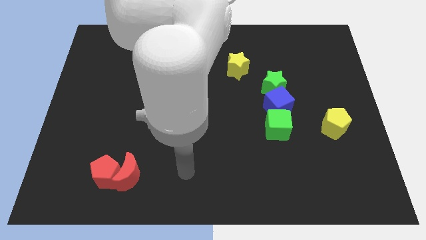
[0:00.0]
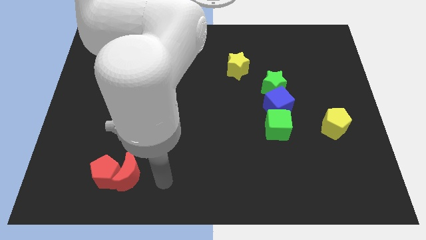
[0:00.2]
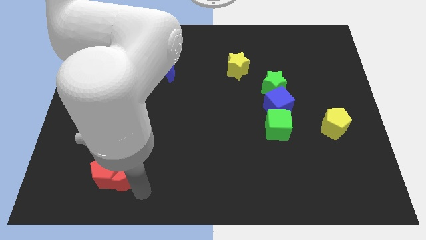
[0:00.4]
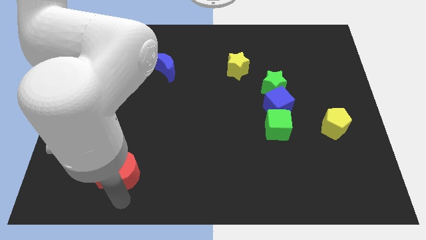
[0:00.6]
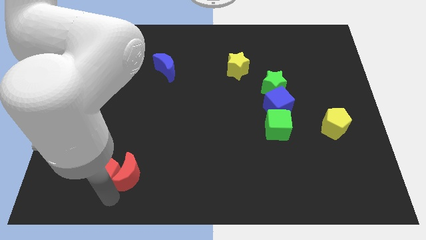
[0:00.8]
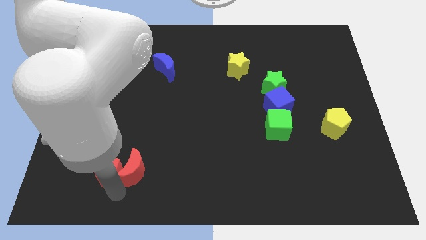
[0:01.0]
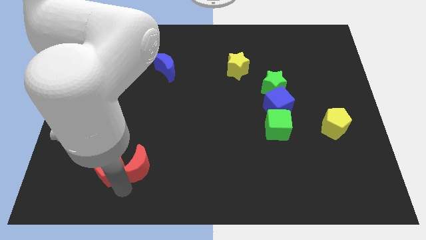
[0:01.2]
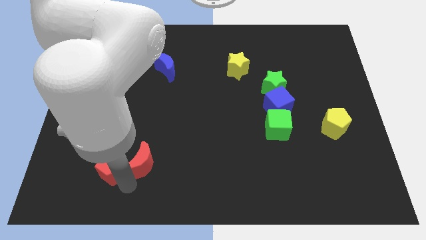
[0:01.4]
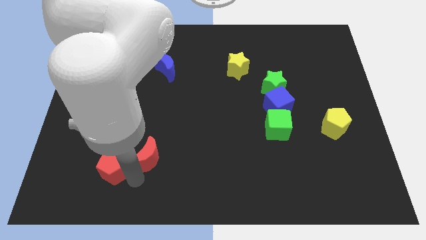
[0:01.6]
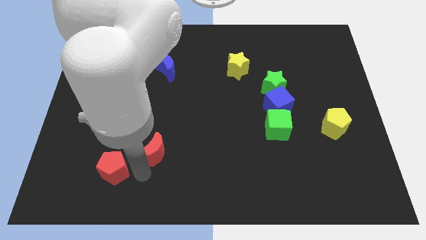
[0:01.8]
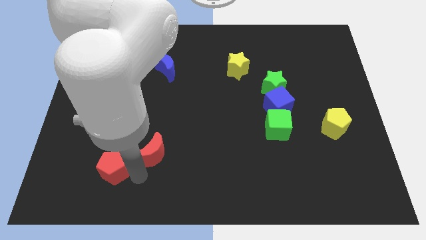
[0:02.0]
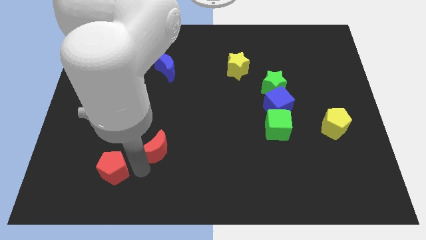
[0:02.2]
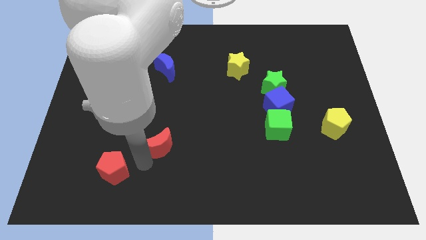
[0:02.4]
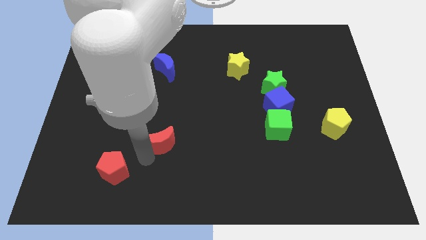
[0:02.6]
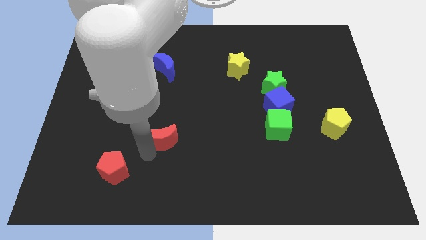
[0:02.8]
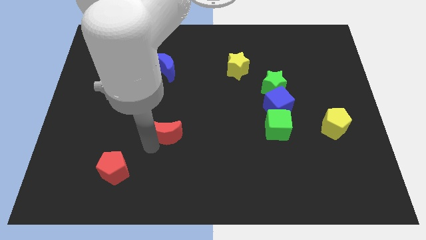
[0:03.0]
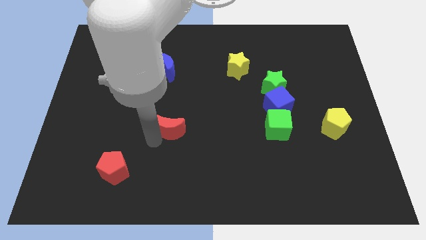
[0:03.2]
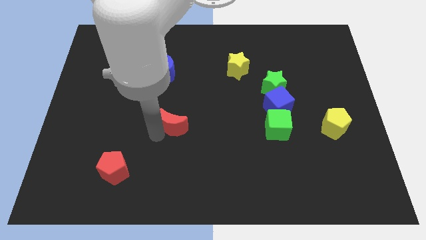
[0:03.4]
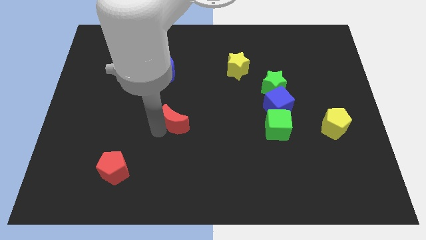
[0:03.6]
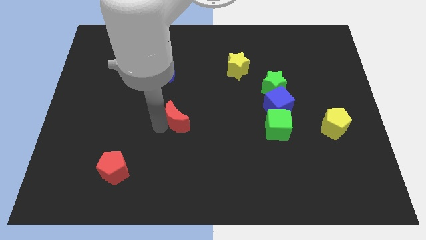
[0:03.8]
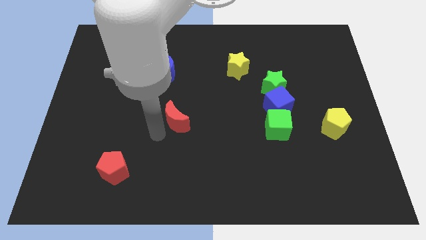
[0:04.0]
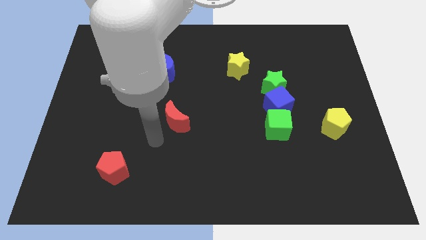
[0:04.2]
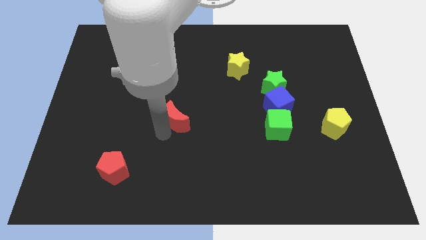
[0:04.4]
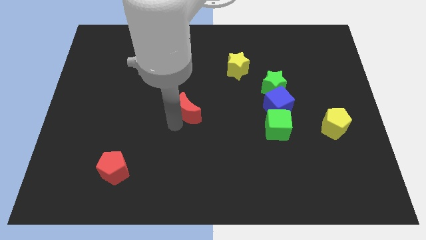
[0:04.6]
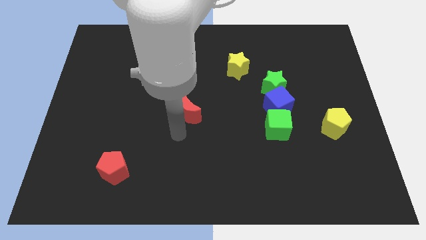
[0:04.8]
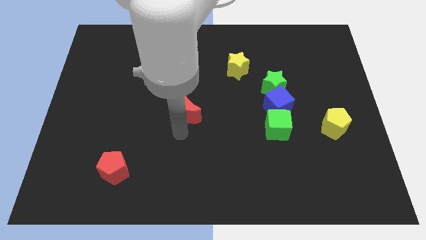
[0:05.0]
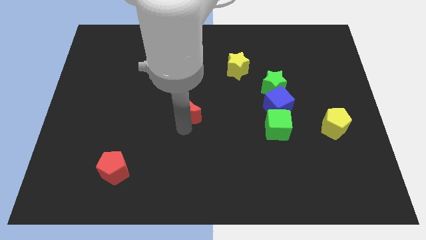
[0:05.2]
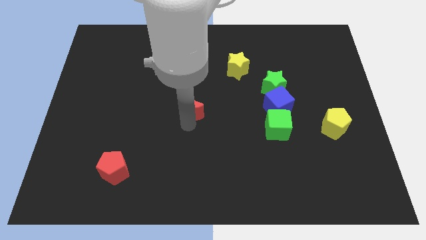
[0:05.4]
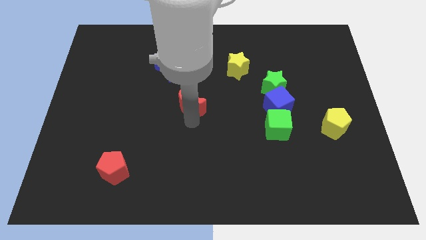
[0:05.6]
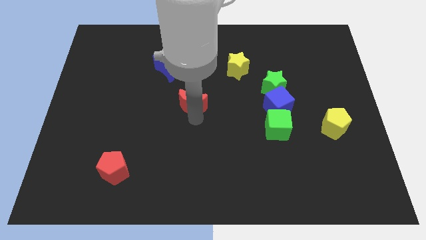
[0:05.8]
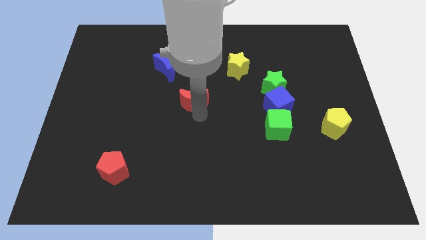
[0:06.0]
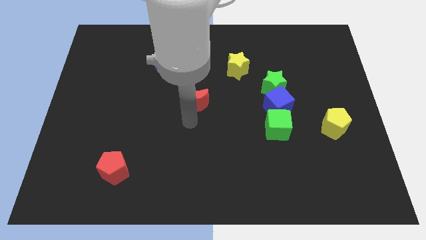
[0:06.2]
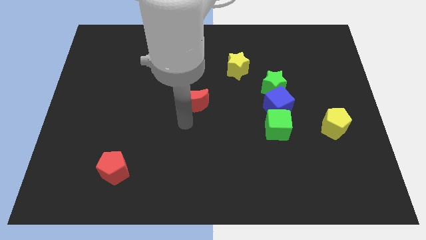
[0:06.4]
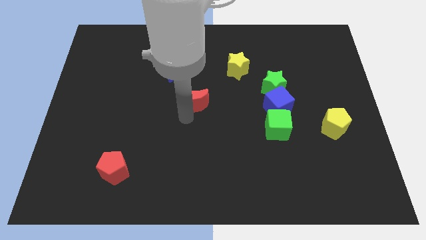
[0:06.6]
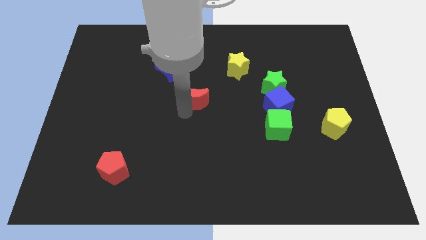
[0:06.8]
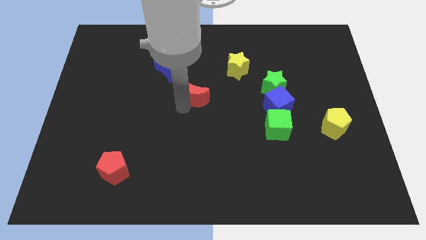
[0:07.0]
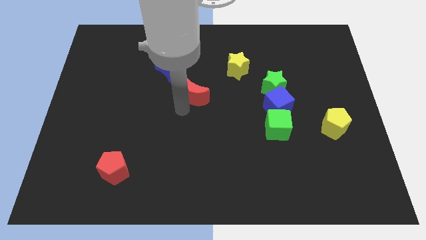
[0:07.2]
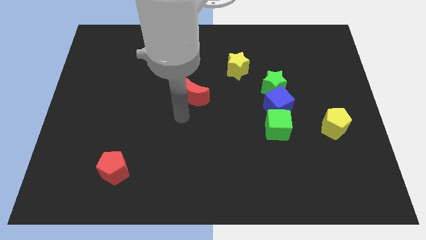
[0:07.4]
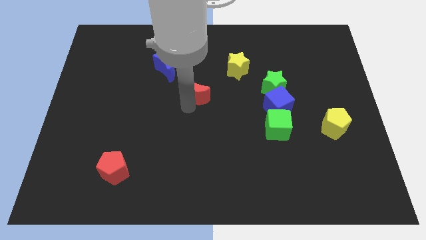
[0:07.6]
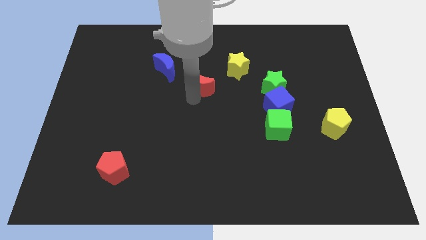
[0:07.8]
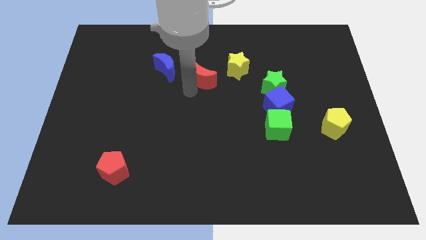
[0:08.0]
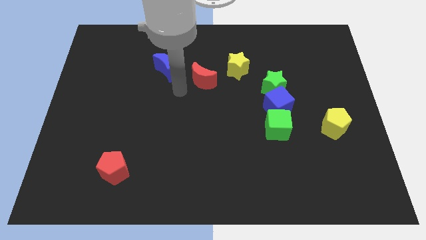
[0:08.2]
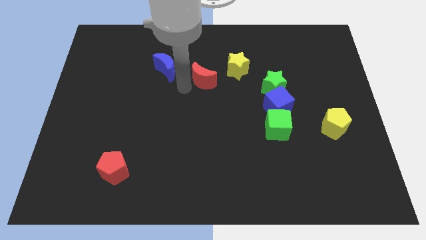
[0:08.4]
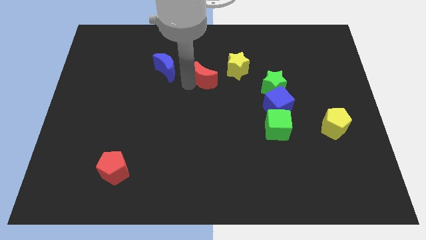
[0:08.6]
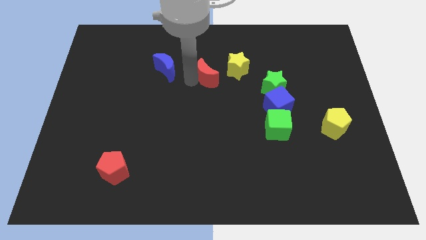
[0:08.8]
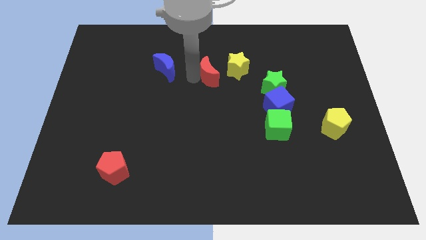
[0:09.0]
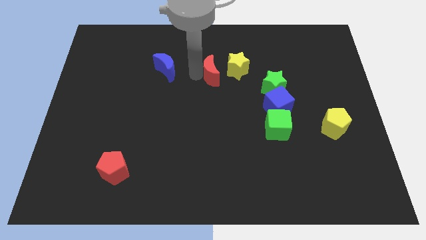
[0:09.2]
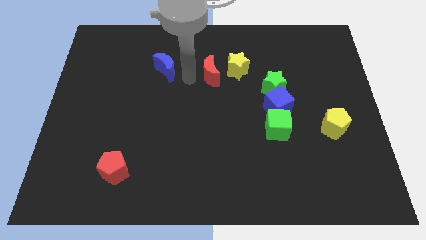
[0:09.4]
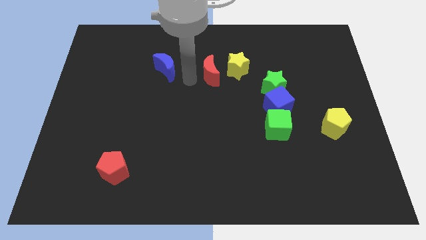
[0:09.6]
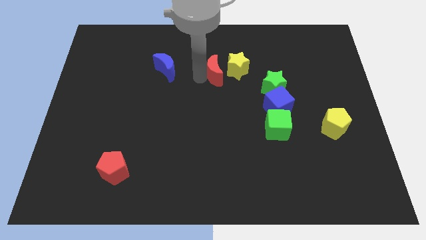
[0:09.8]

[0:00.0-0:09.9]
move the red moon to the yellow star

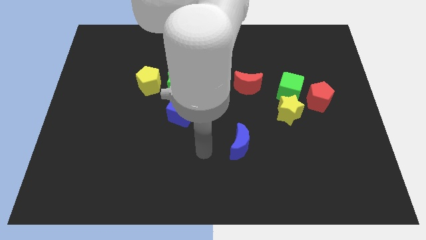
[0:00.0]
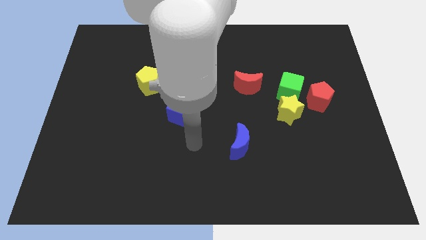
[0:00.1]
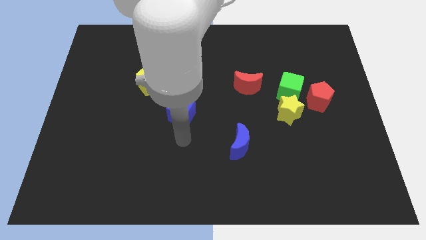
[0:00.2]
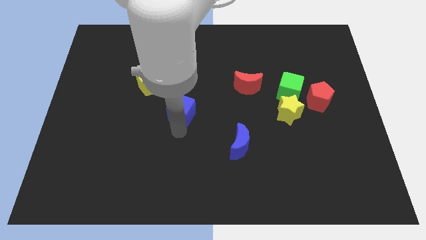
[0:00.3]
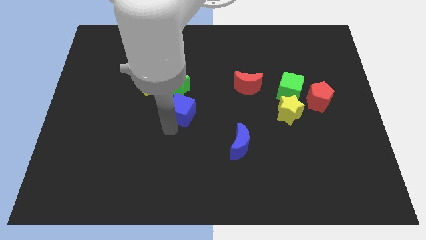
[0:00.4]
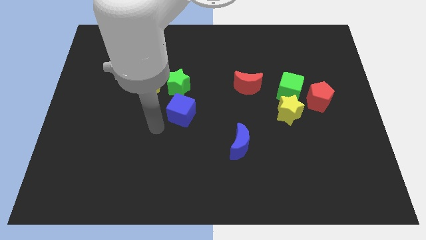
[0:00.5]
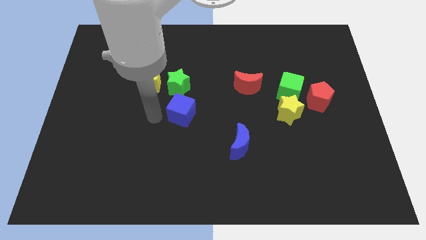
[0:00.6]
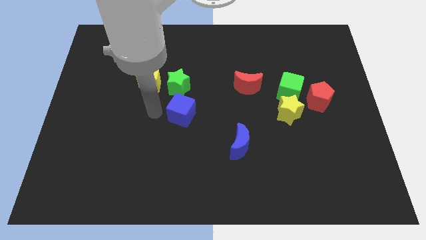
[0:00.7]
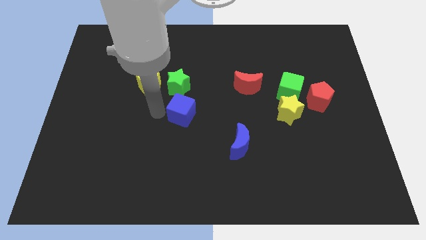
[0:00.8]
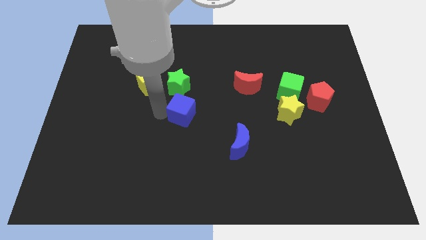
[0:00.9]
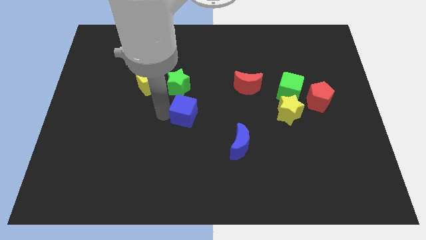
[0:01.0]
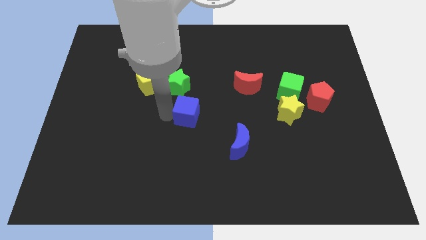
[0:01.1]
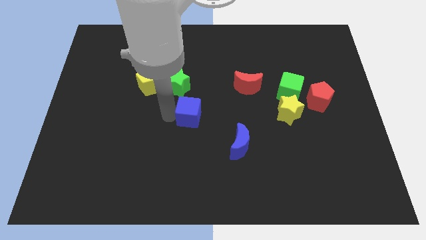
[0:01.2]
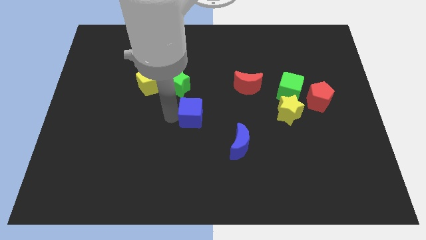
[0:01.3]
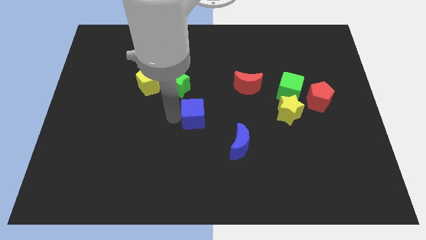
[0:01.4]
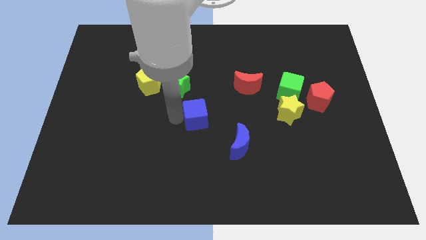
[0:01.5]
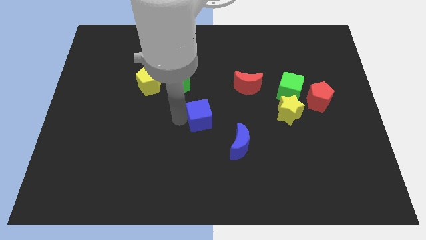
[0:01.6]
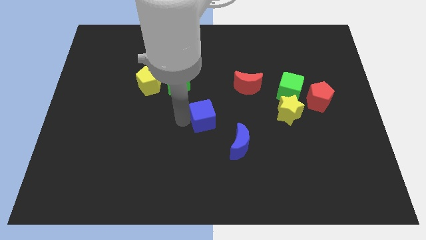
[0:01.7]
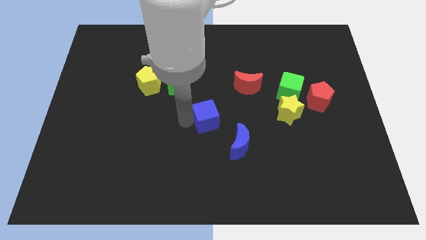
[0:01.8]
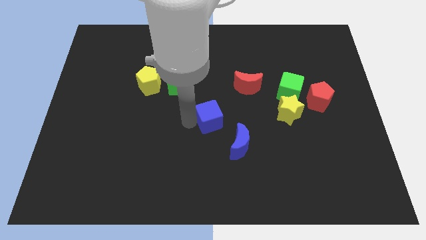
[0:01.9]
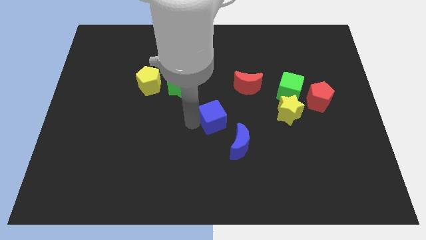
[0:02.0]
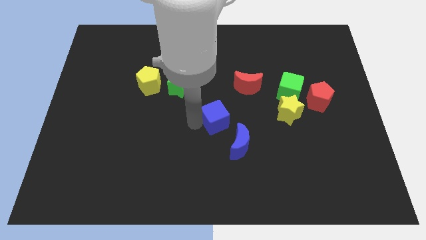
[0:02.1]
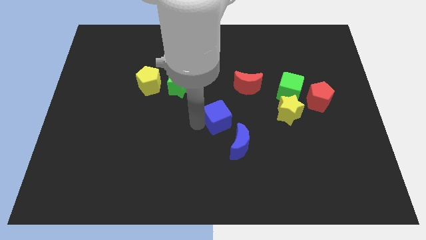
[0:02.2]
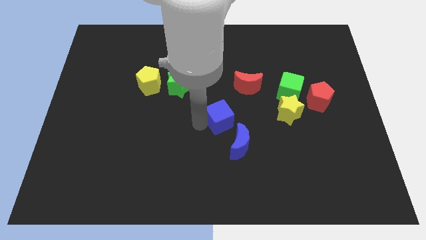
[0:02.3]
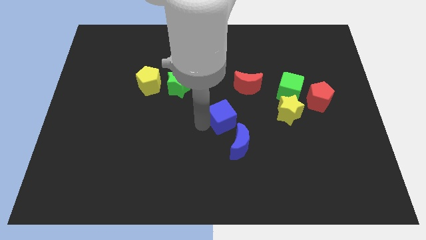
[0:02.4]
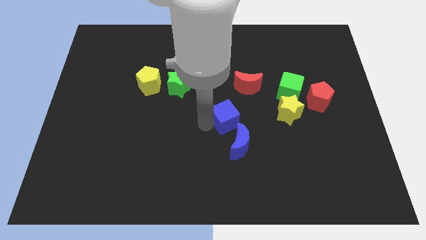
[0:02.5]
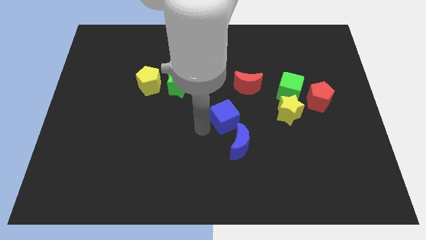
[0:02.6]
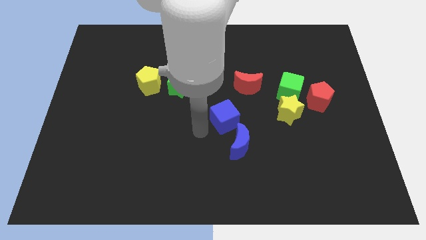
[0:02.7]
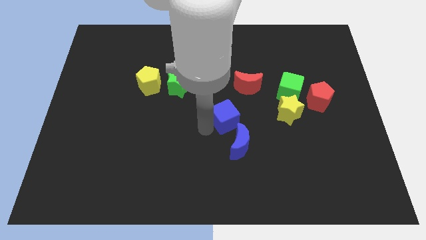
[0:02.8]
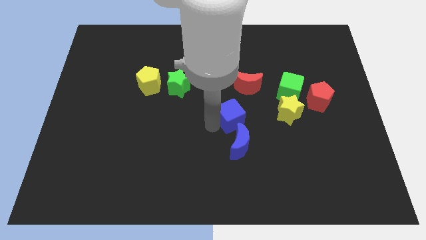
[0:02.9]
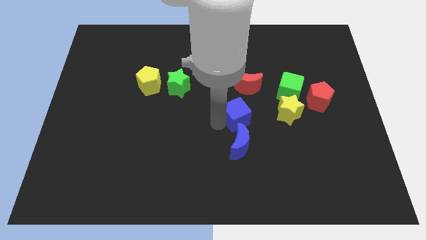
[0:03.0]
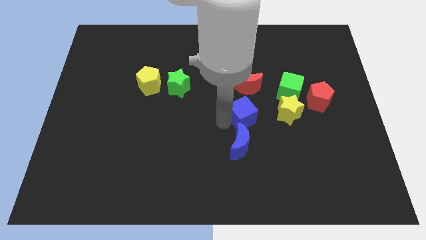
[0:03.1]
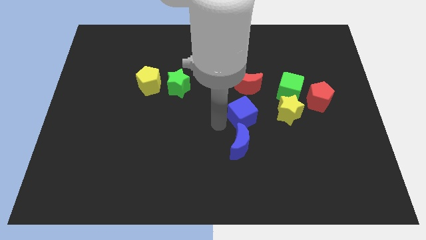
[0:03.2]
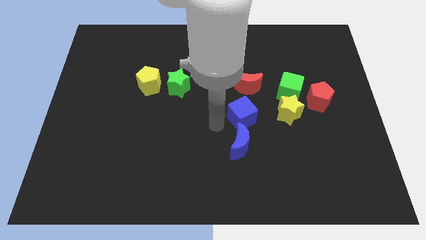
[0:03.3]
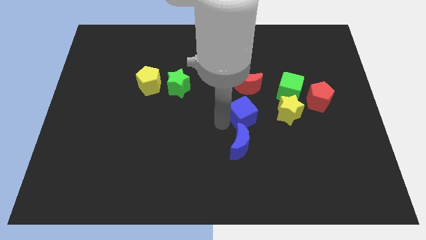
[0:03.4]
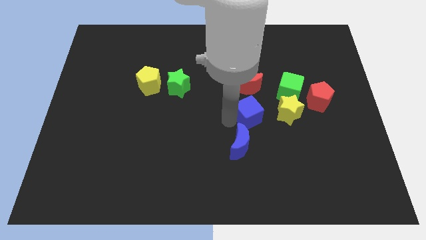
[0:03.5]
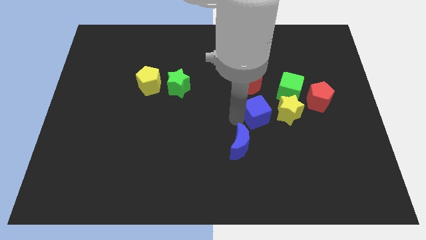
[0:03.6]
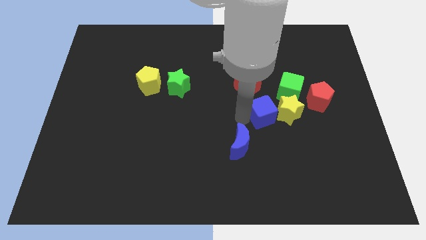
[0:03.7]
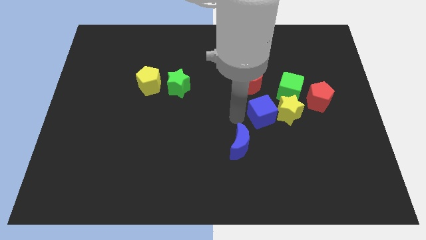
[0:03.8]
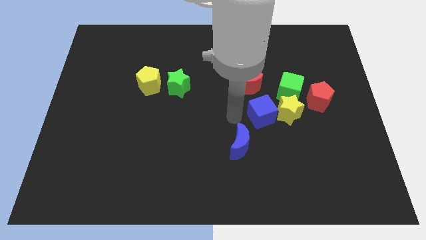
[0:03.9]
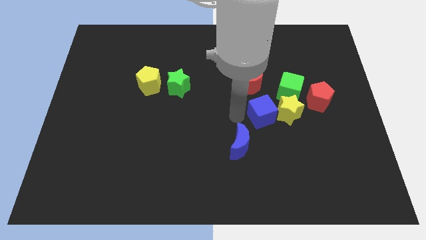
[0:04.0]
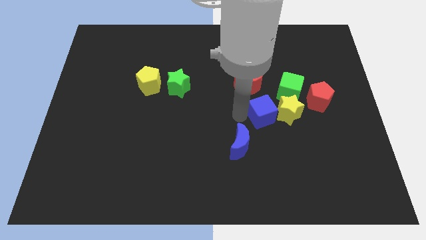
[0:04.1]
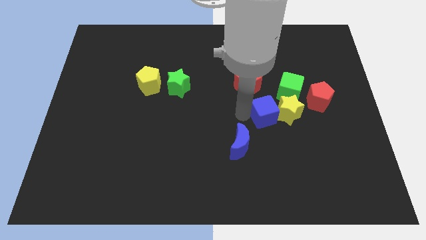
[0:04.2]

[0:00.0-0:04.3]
push the blue cube to the yellow star
